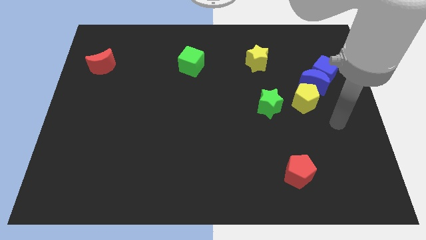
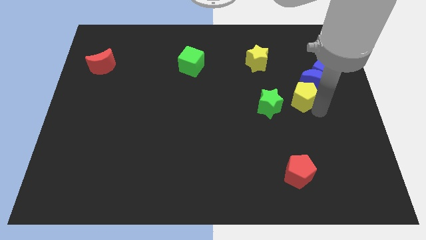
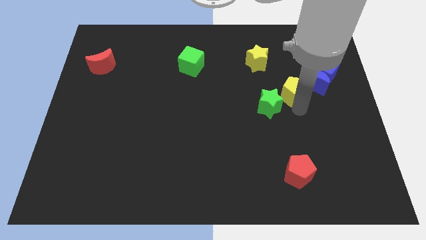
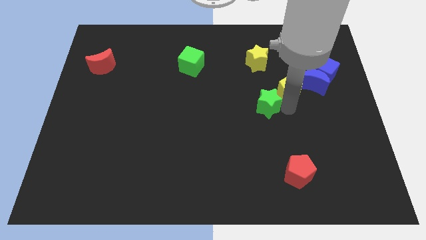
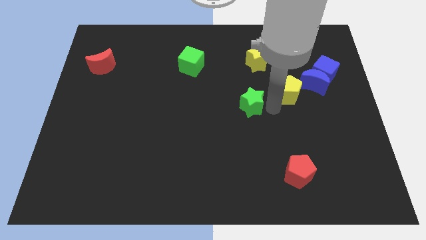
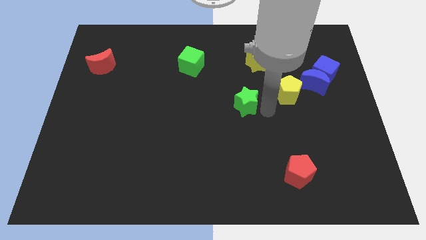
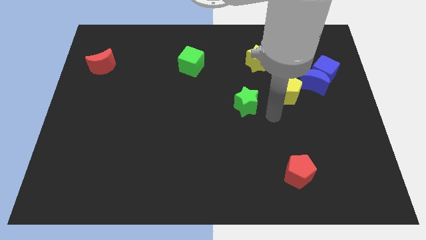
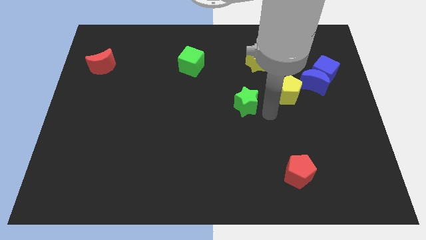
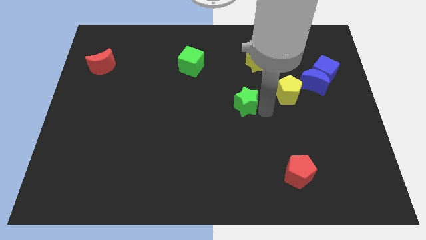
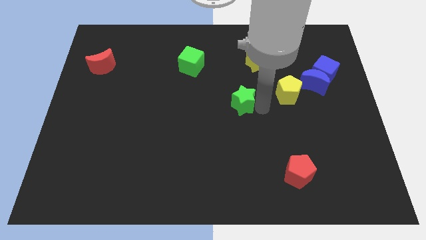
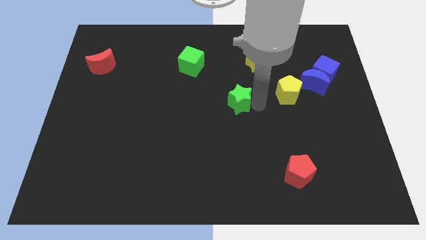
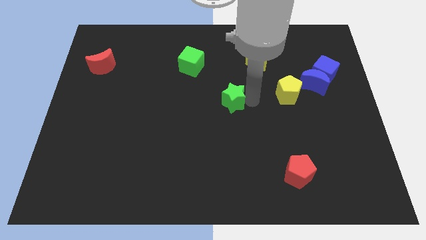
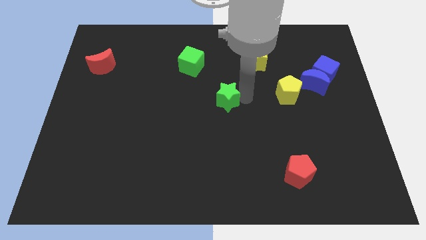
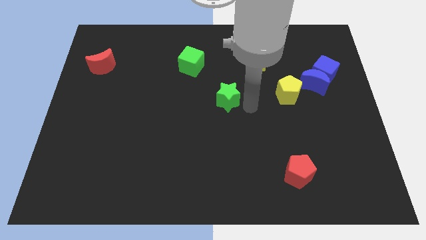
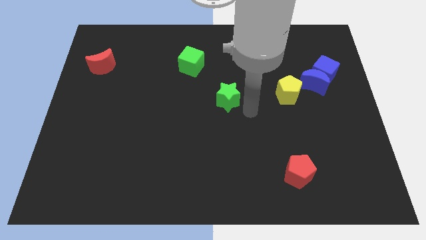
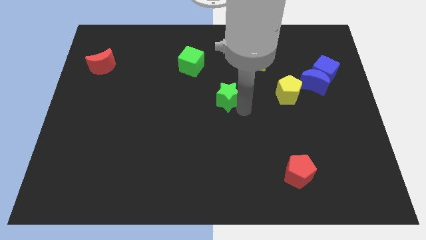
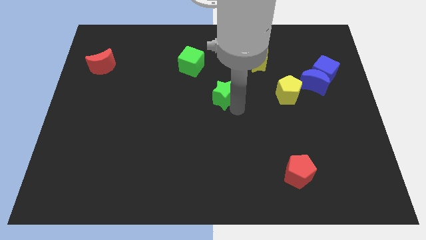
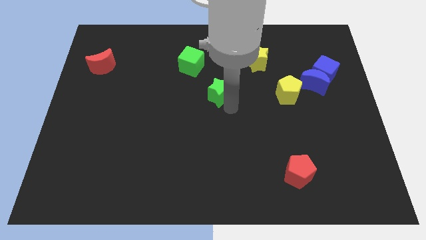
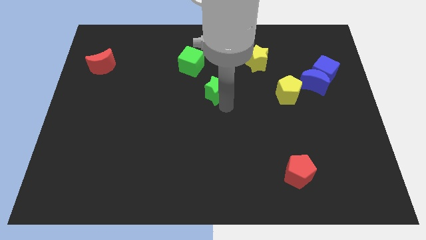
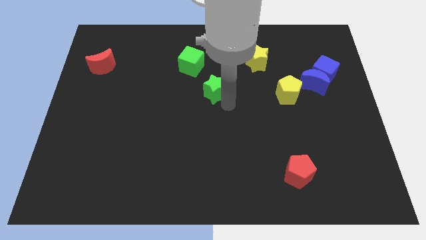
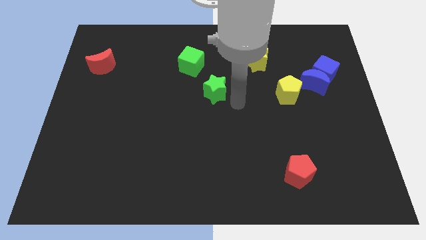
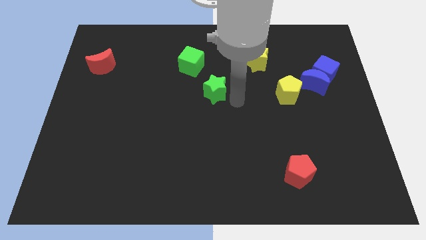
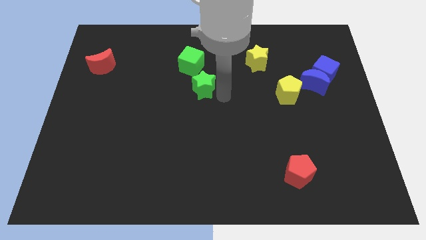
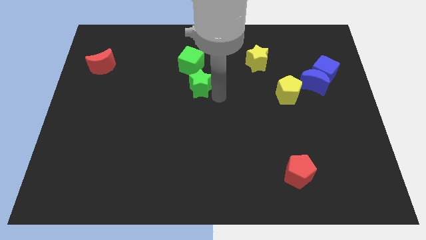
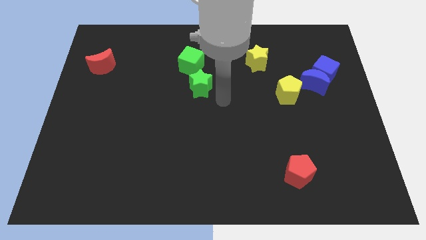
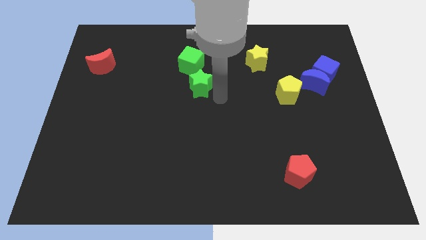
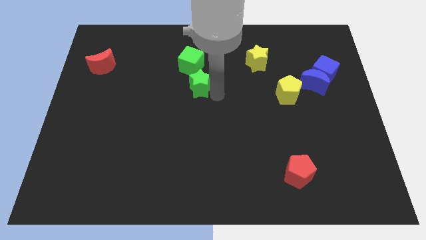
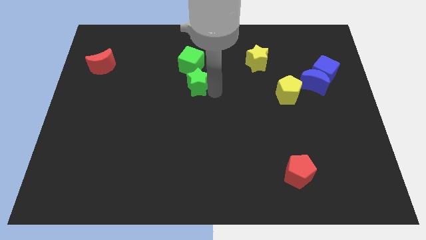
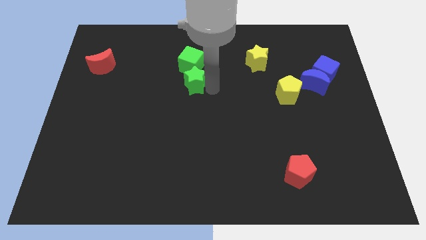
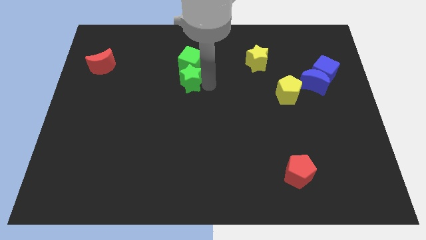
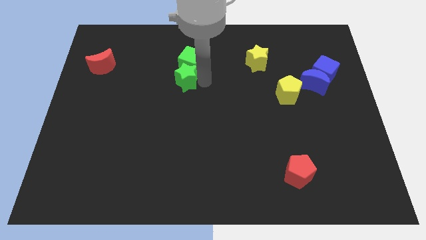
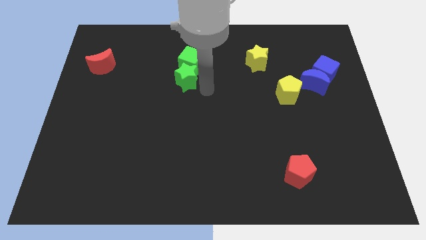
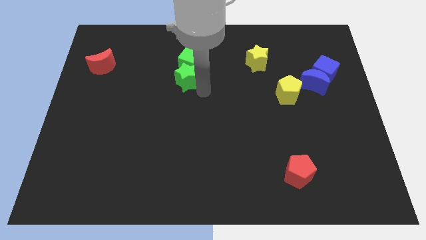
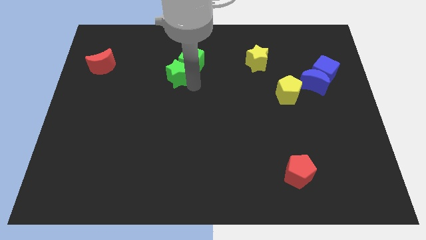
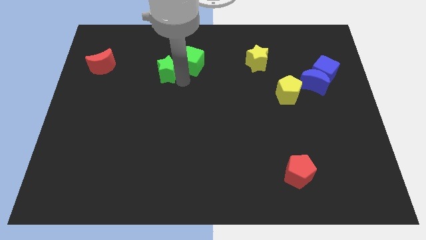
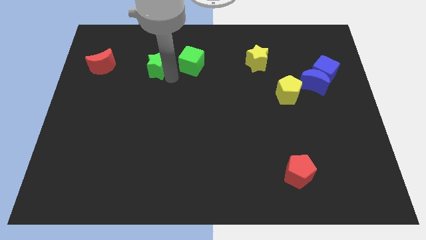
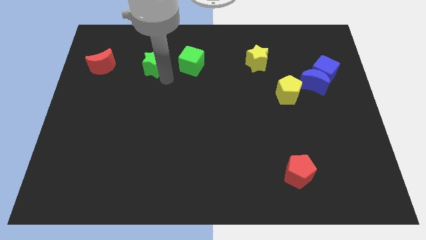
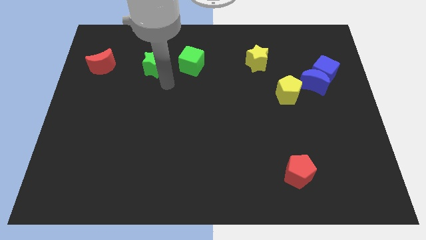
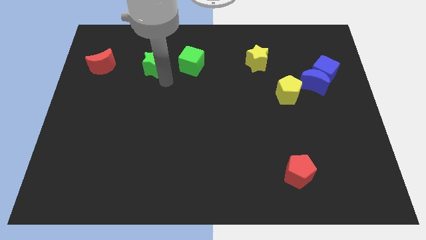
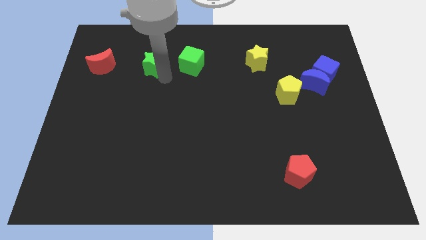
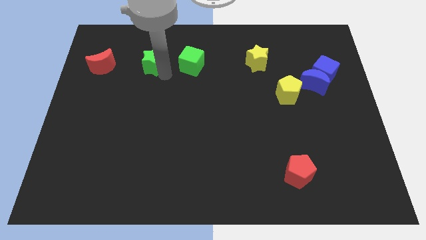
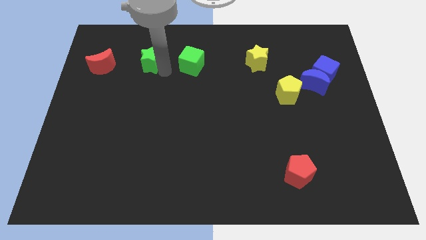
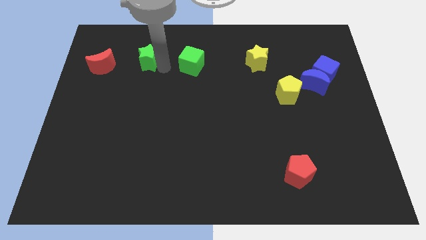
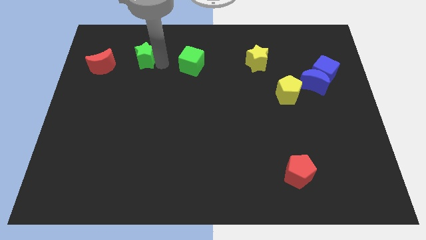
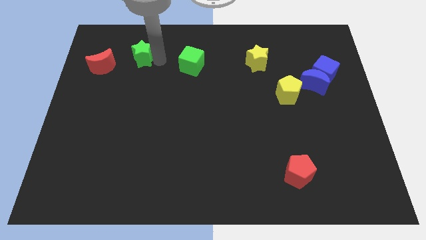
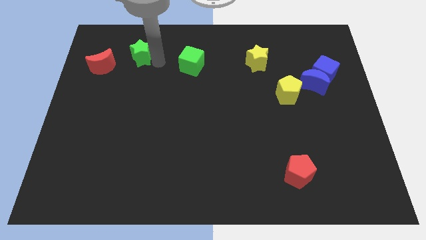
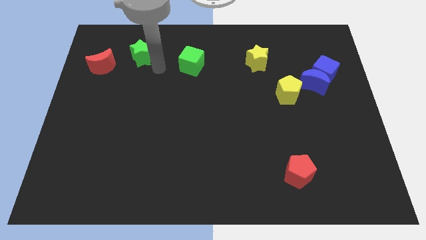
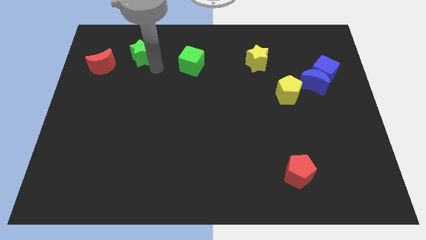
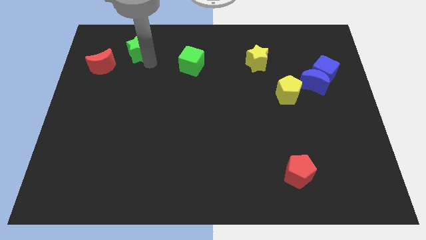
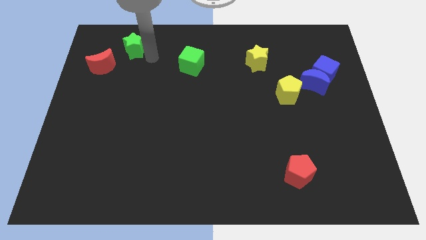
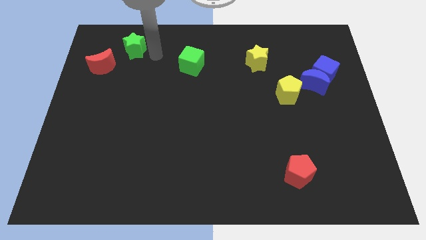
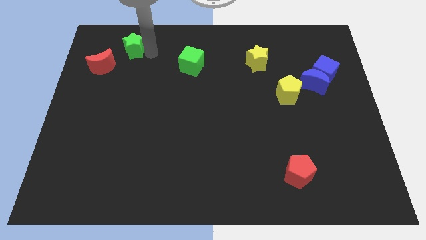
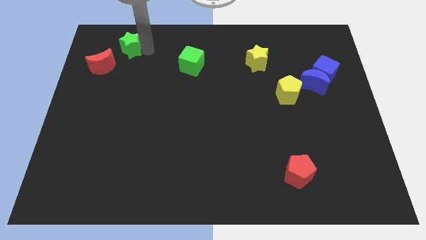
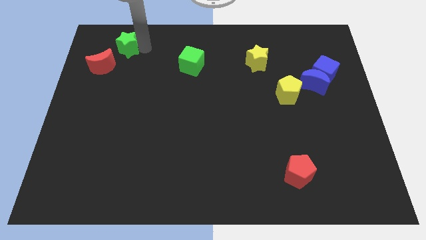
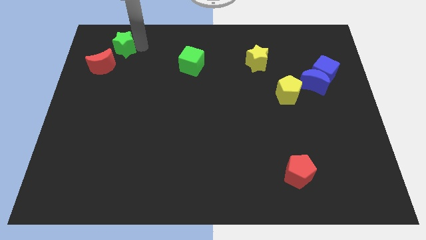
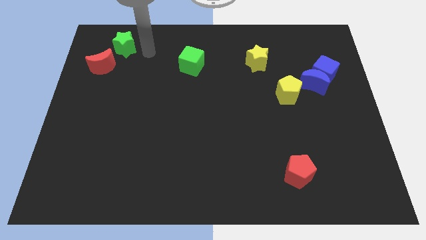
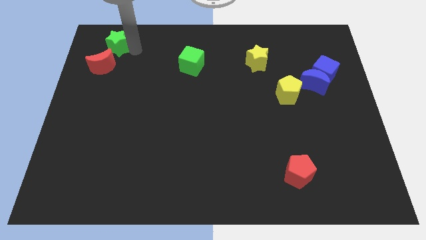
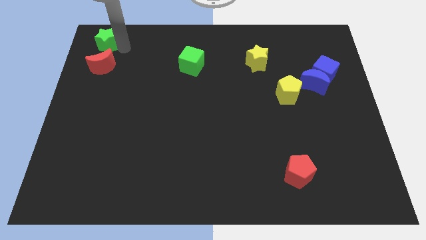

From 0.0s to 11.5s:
push the green star to the upper left corner
